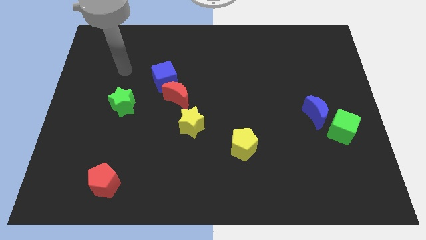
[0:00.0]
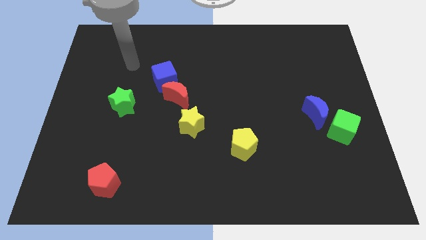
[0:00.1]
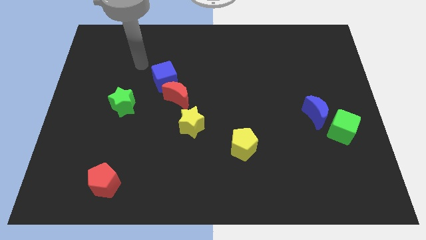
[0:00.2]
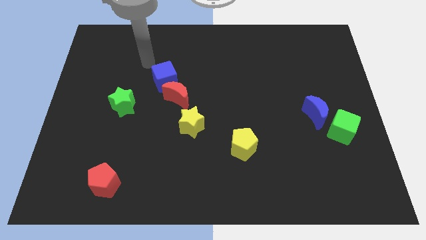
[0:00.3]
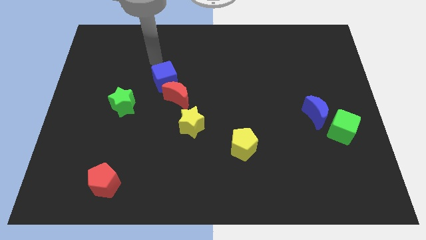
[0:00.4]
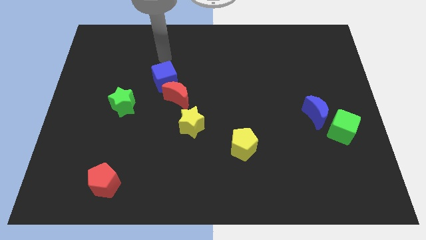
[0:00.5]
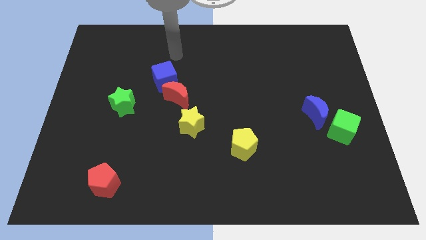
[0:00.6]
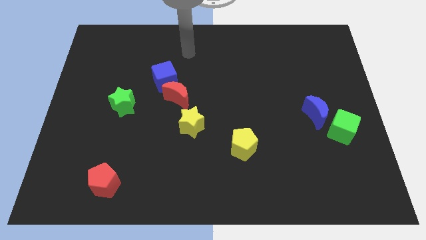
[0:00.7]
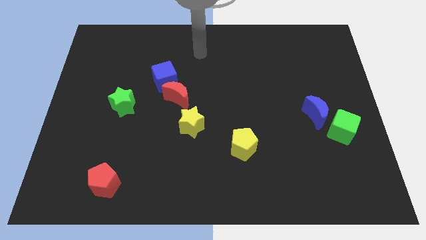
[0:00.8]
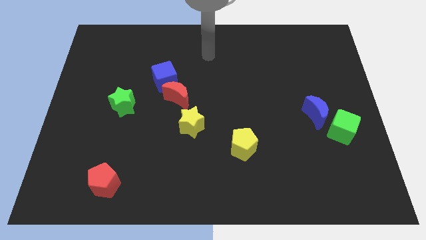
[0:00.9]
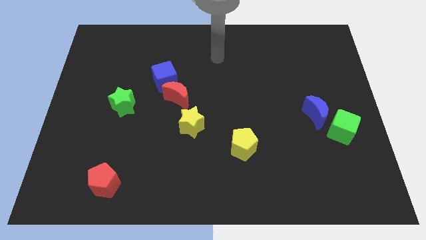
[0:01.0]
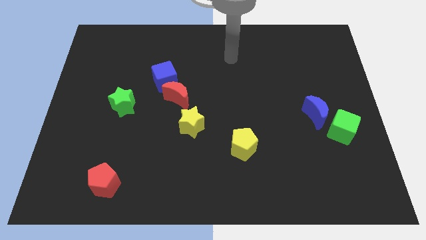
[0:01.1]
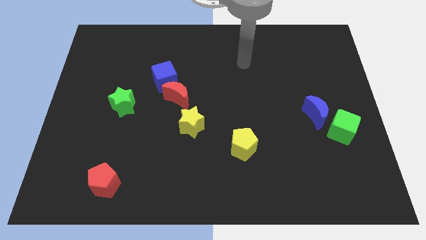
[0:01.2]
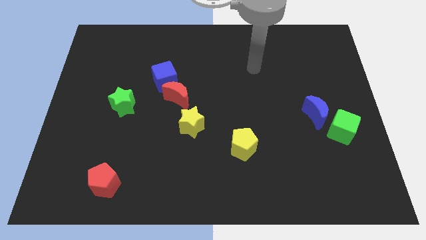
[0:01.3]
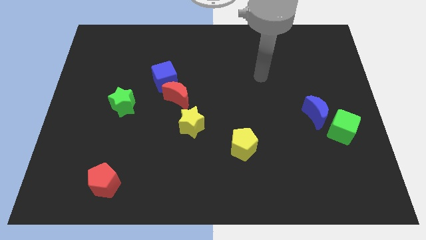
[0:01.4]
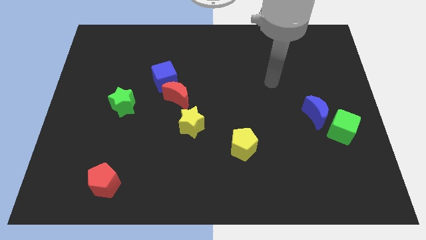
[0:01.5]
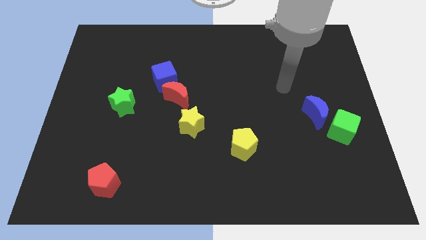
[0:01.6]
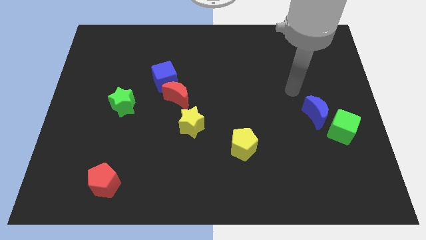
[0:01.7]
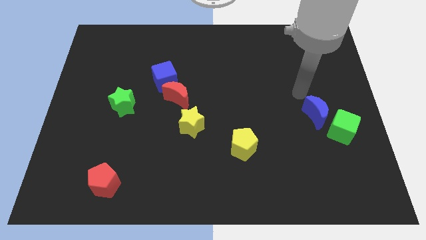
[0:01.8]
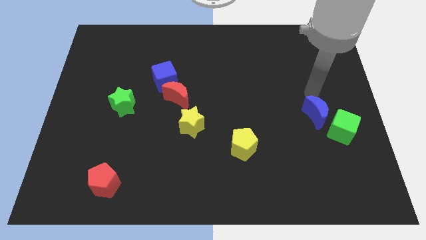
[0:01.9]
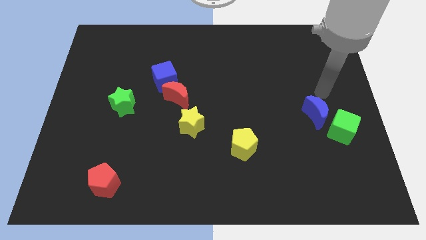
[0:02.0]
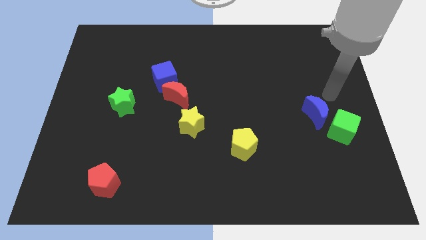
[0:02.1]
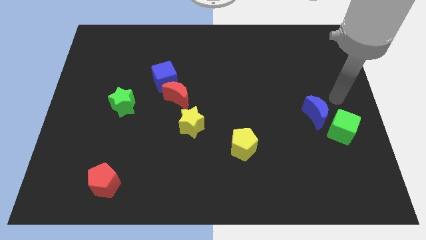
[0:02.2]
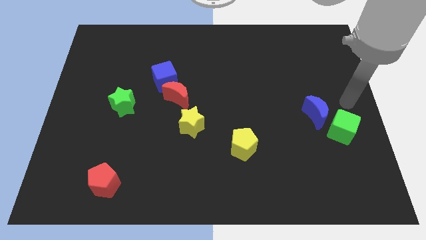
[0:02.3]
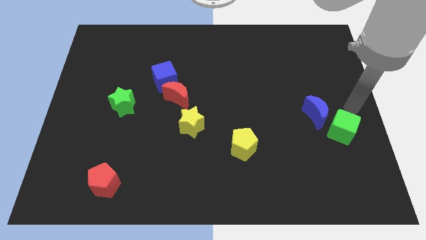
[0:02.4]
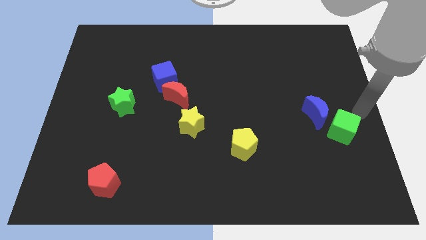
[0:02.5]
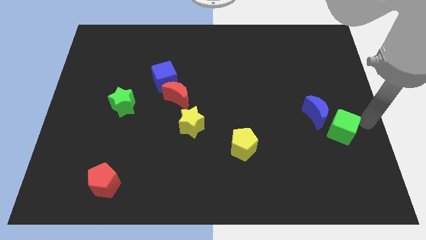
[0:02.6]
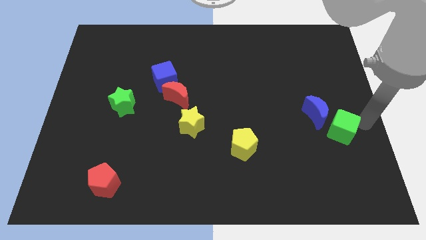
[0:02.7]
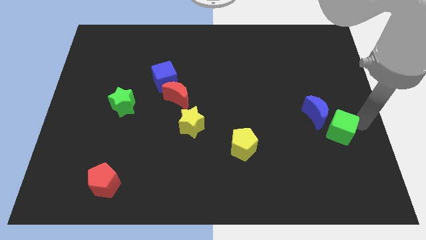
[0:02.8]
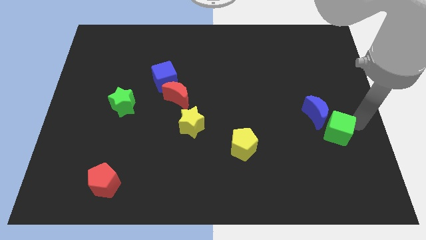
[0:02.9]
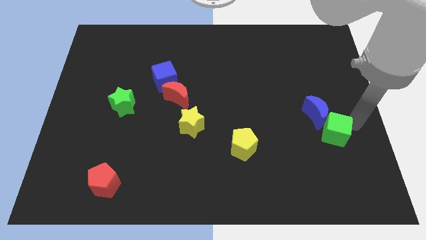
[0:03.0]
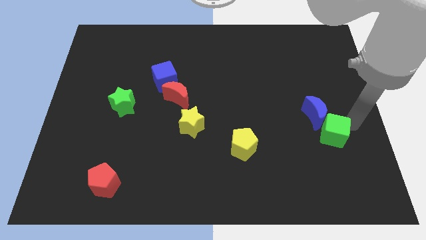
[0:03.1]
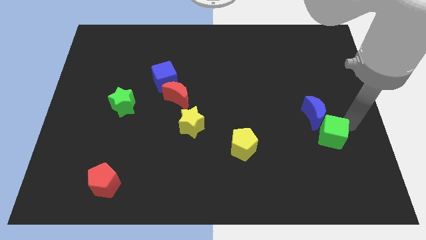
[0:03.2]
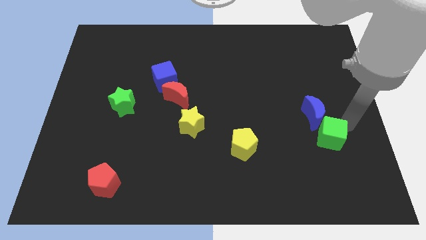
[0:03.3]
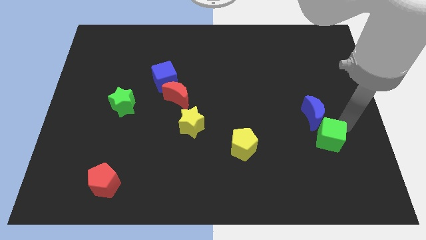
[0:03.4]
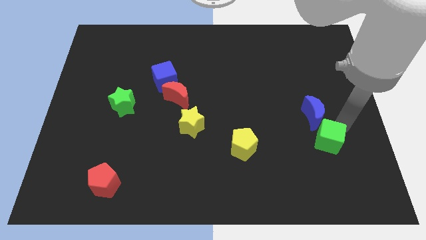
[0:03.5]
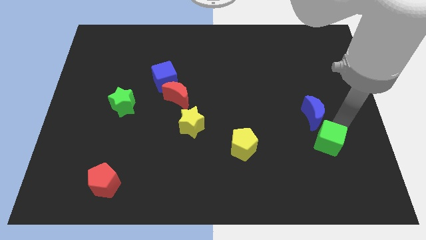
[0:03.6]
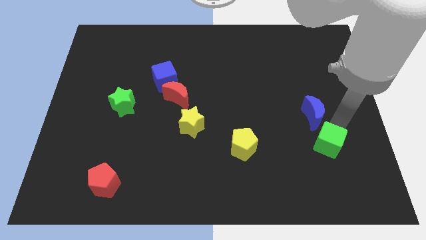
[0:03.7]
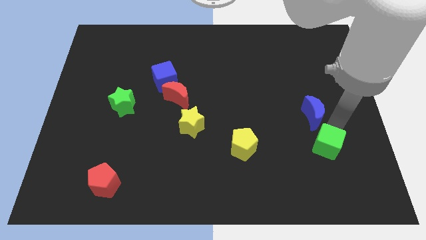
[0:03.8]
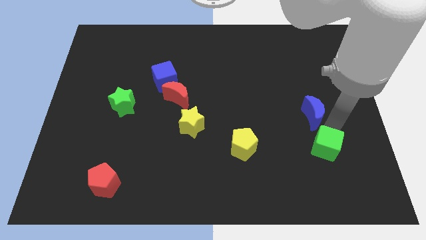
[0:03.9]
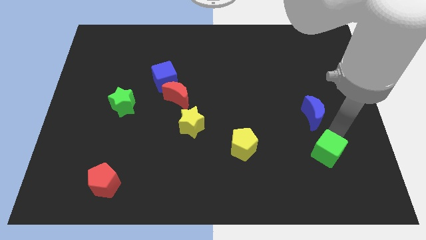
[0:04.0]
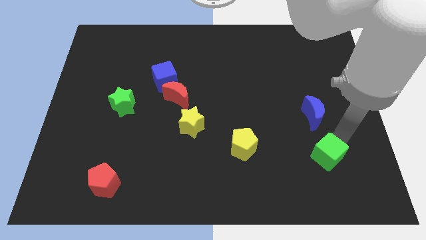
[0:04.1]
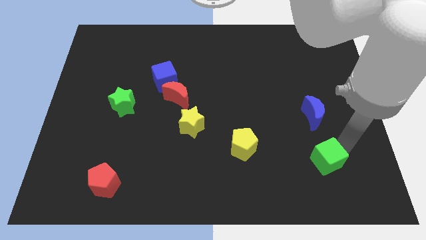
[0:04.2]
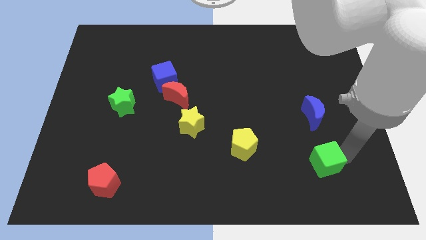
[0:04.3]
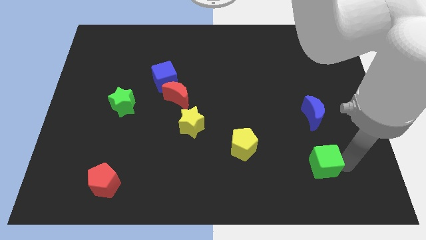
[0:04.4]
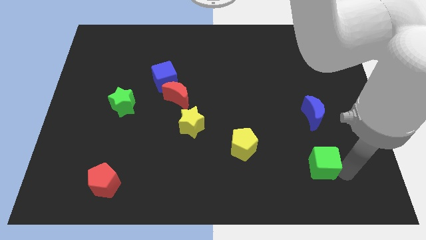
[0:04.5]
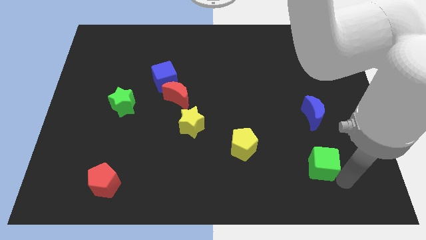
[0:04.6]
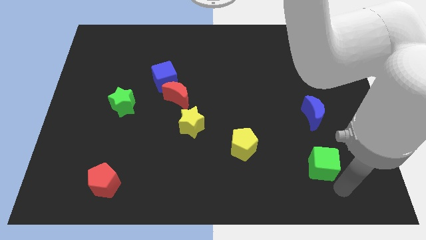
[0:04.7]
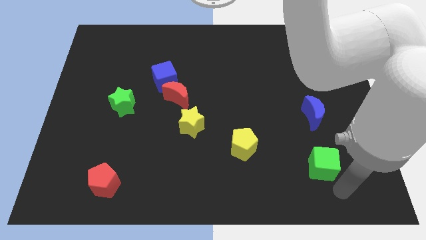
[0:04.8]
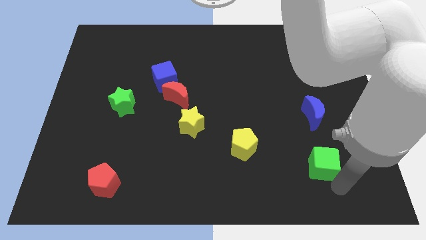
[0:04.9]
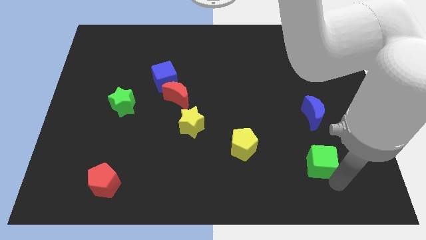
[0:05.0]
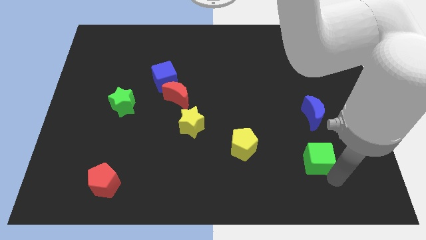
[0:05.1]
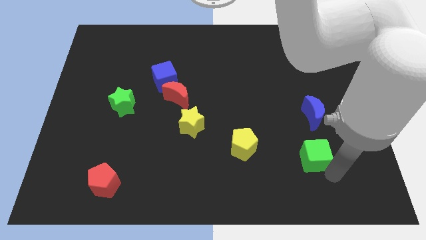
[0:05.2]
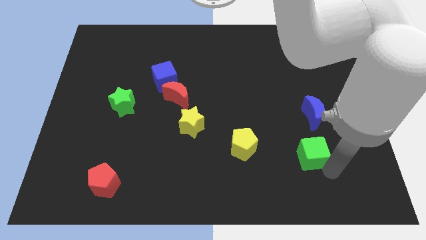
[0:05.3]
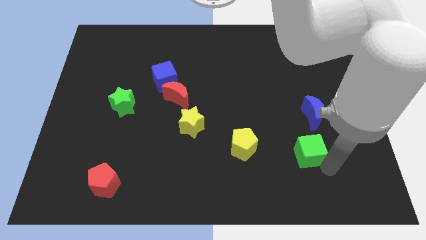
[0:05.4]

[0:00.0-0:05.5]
slightly slide the green cube to the left

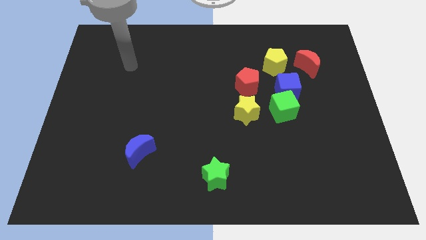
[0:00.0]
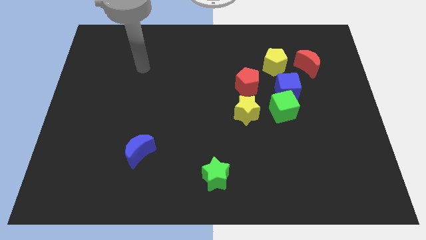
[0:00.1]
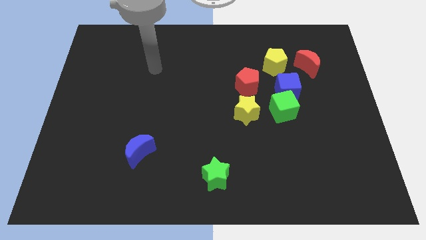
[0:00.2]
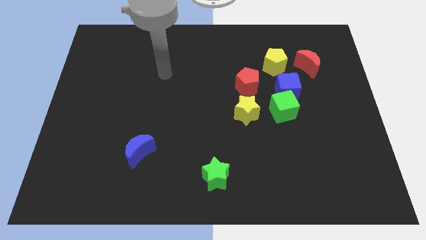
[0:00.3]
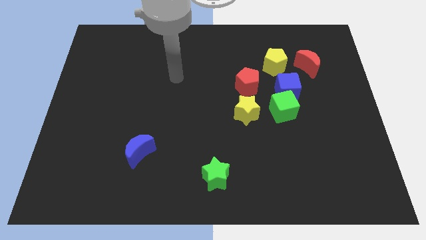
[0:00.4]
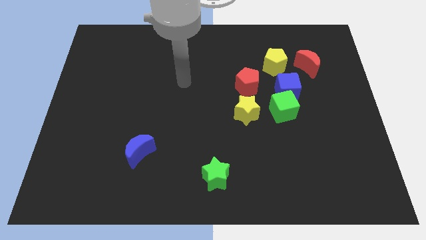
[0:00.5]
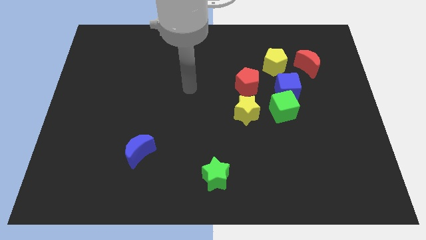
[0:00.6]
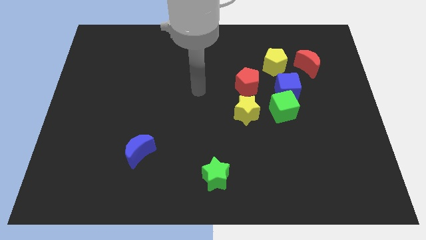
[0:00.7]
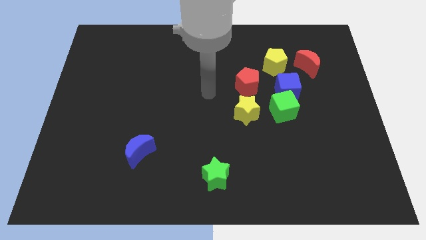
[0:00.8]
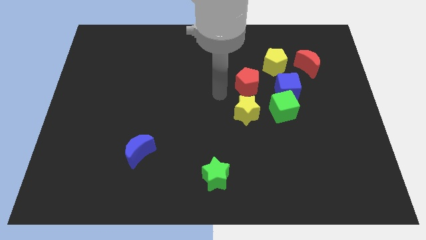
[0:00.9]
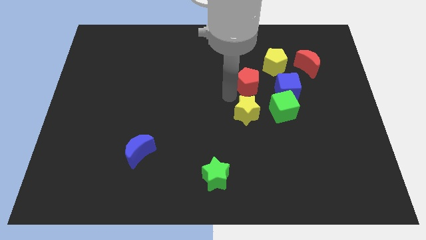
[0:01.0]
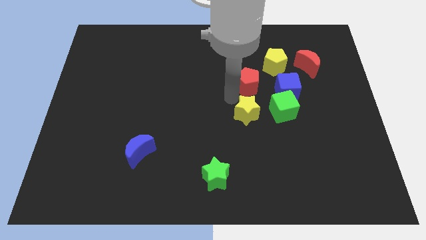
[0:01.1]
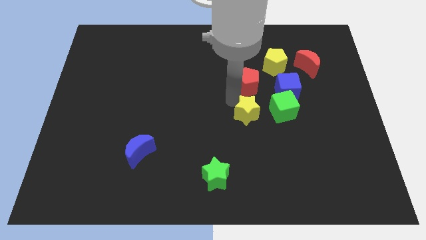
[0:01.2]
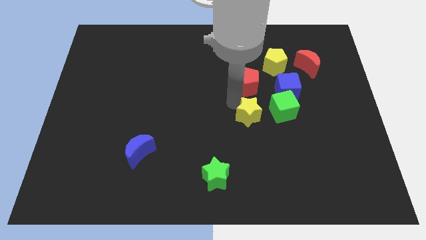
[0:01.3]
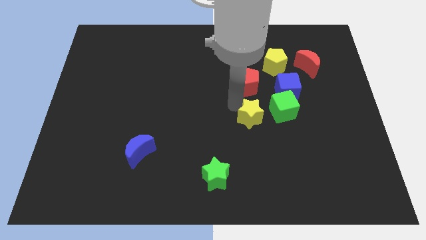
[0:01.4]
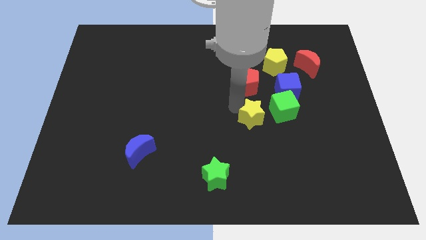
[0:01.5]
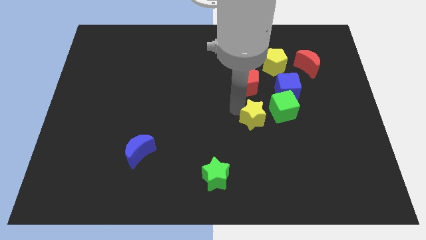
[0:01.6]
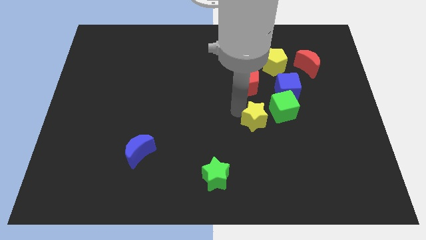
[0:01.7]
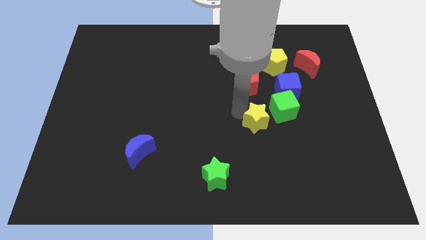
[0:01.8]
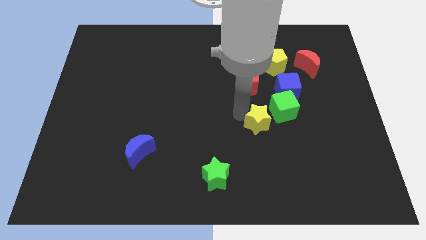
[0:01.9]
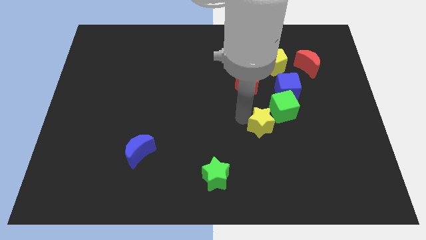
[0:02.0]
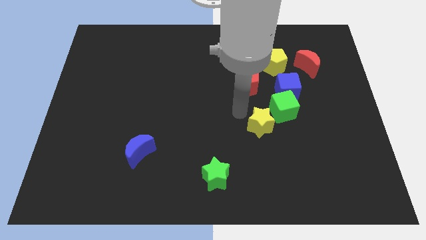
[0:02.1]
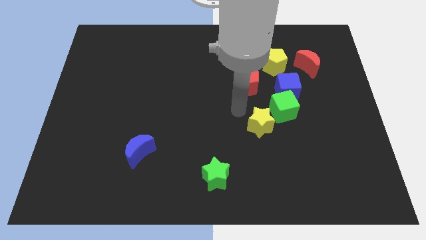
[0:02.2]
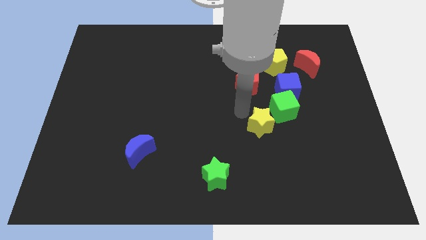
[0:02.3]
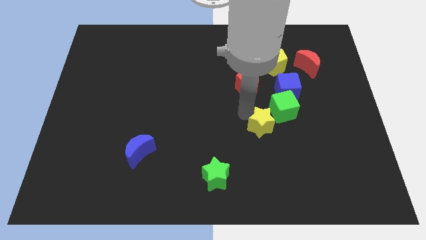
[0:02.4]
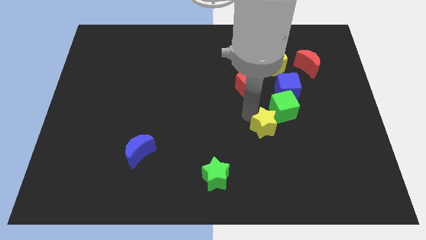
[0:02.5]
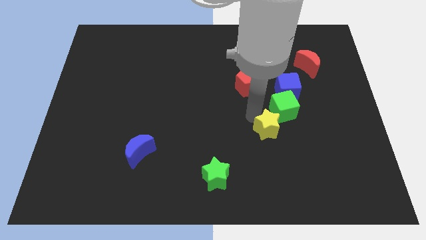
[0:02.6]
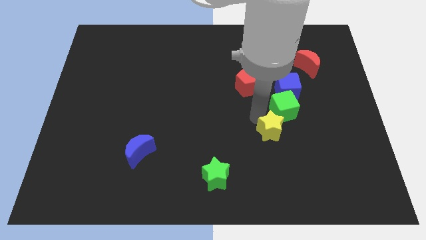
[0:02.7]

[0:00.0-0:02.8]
slightly push the yellow star downwards and right diagonally
